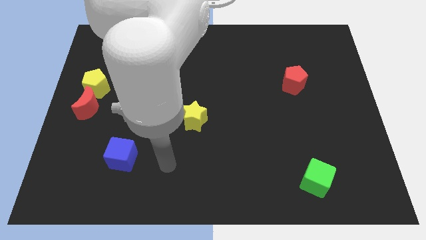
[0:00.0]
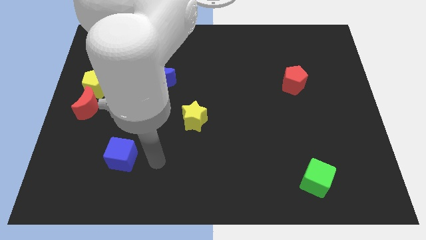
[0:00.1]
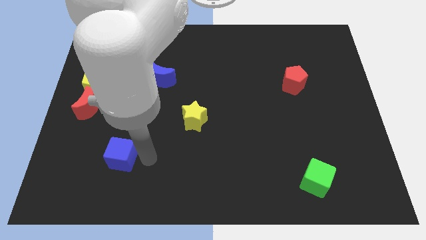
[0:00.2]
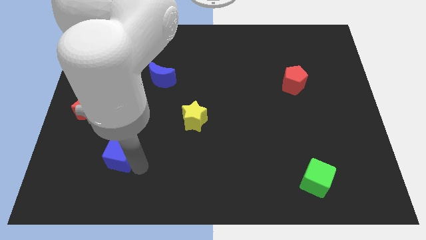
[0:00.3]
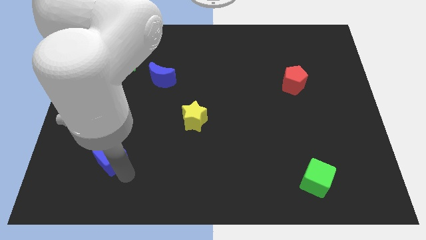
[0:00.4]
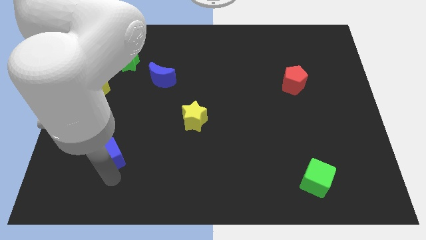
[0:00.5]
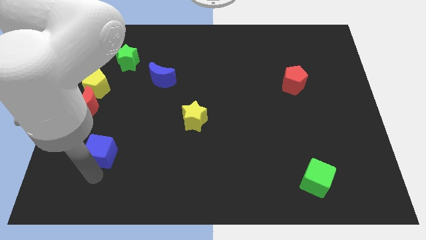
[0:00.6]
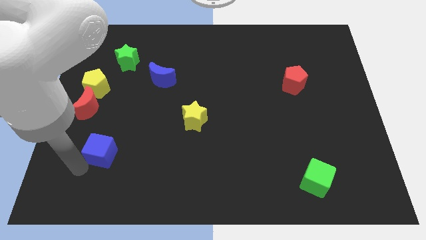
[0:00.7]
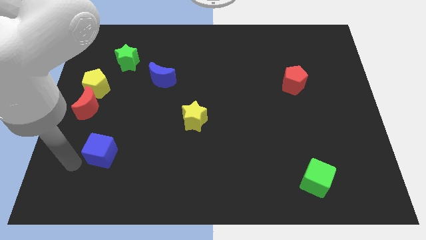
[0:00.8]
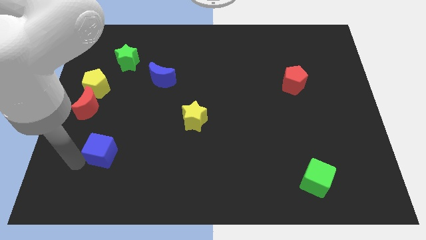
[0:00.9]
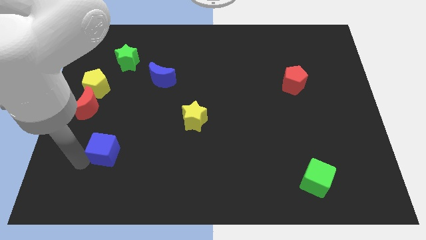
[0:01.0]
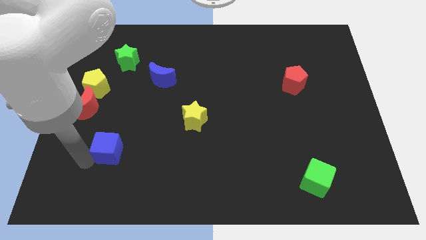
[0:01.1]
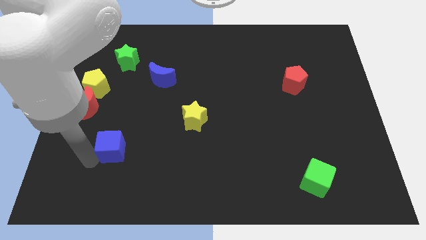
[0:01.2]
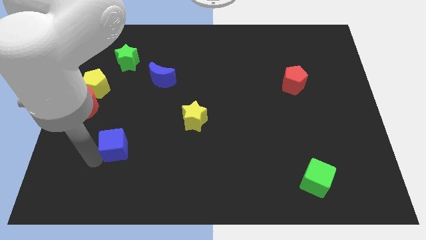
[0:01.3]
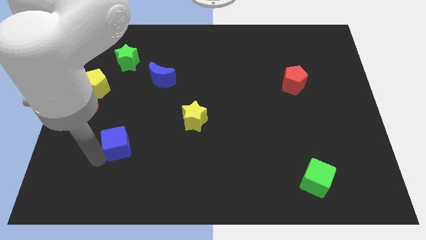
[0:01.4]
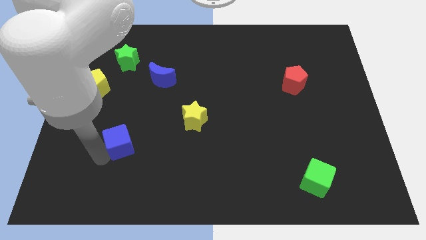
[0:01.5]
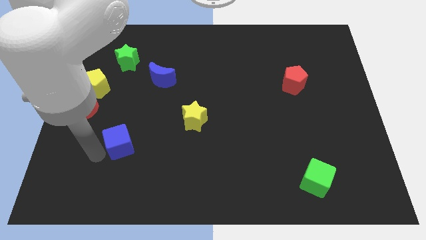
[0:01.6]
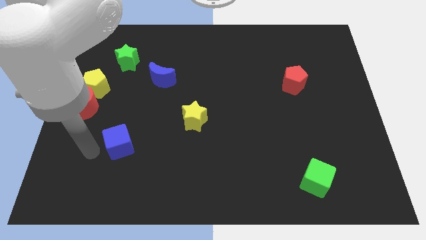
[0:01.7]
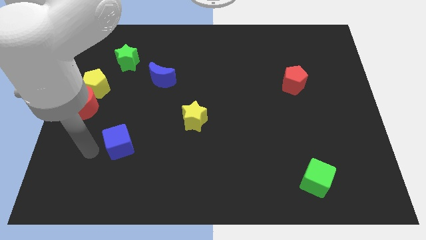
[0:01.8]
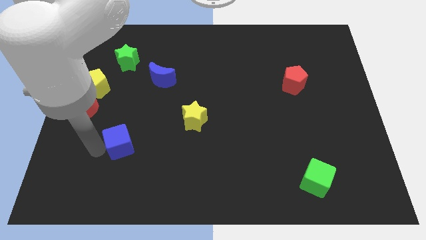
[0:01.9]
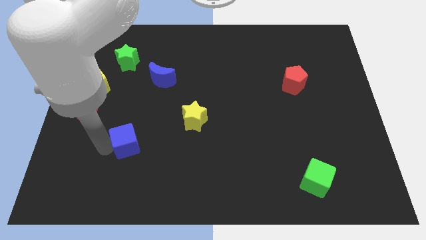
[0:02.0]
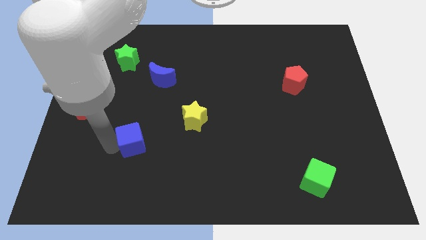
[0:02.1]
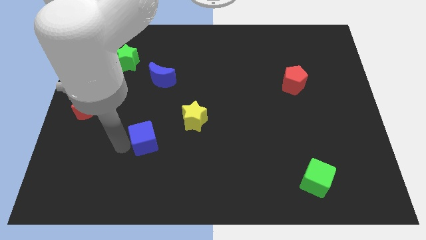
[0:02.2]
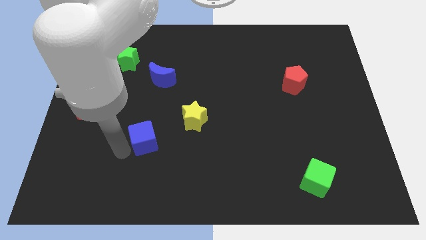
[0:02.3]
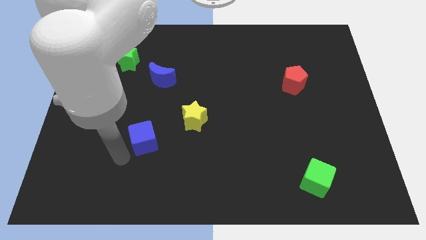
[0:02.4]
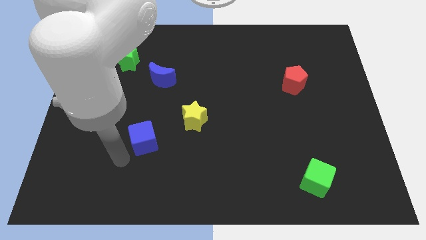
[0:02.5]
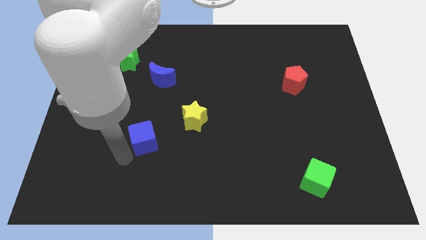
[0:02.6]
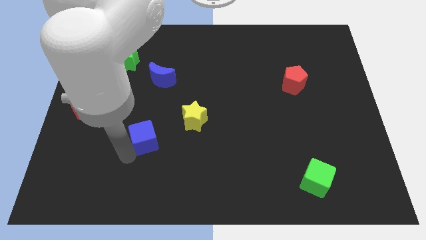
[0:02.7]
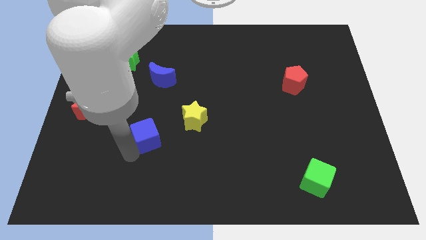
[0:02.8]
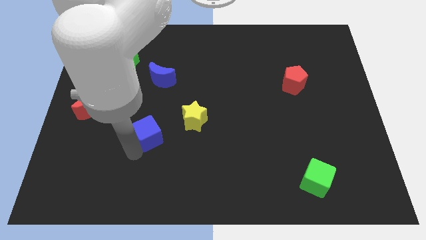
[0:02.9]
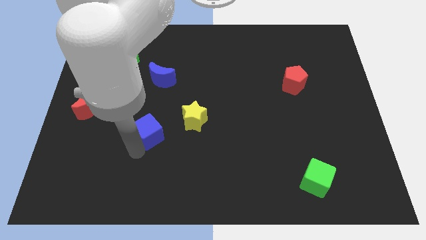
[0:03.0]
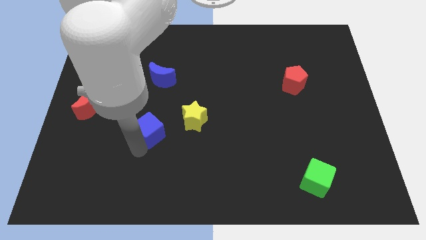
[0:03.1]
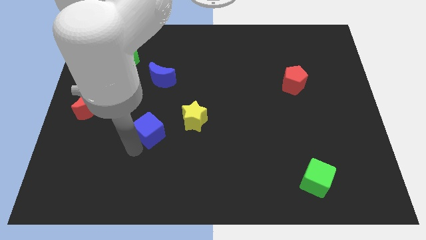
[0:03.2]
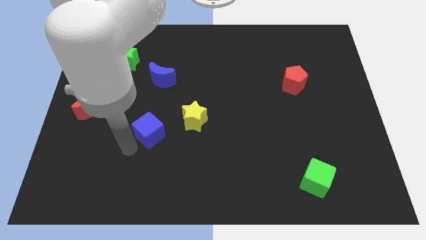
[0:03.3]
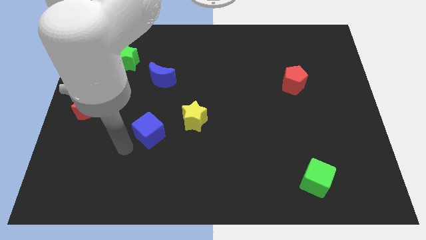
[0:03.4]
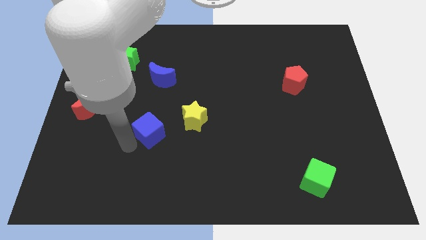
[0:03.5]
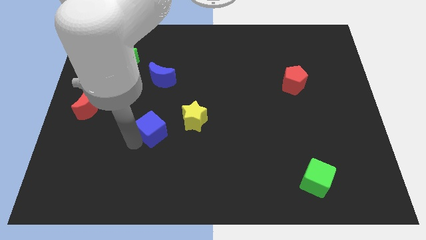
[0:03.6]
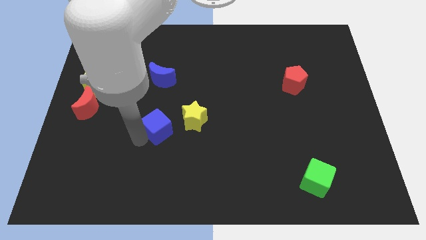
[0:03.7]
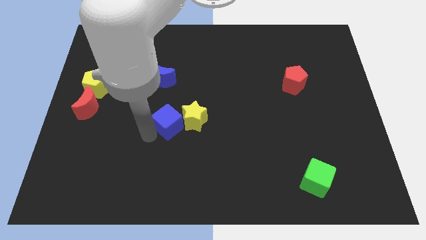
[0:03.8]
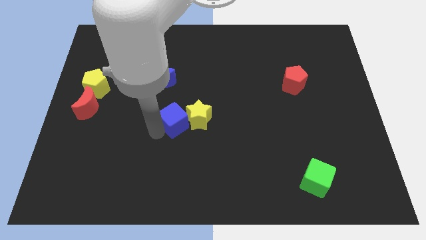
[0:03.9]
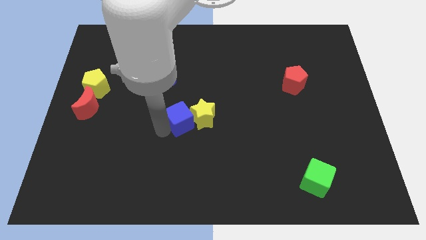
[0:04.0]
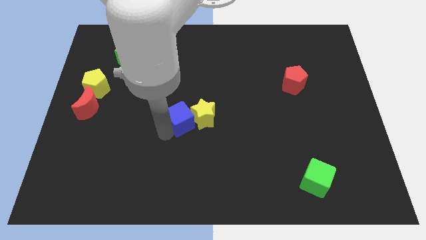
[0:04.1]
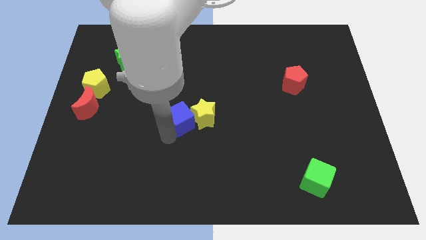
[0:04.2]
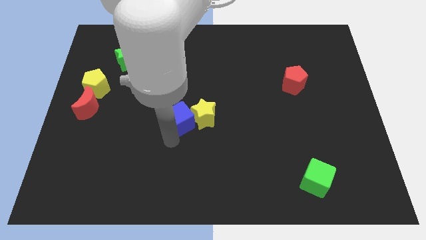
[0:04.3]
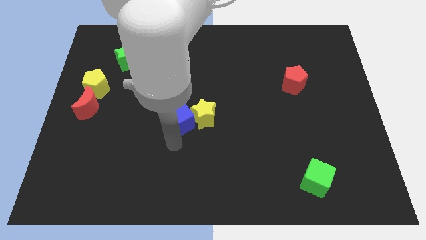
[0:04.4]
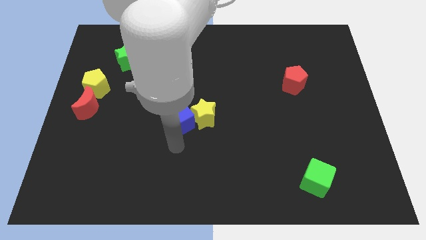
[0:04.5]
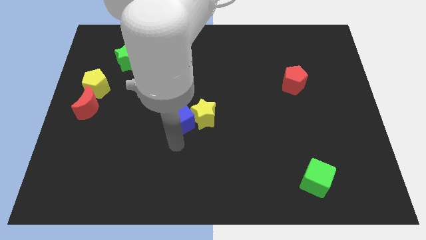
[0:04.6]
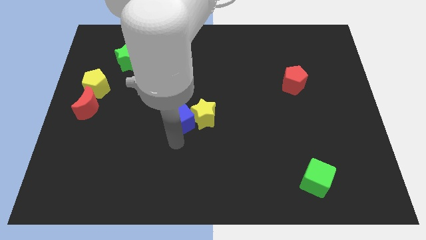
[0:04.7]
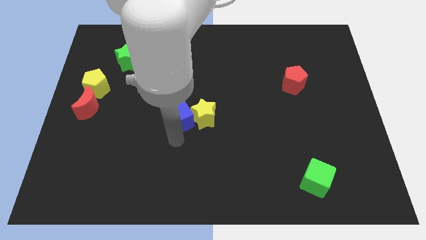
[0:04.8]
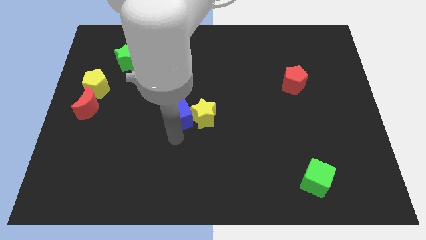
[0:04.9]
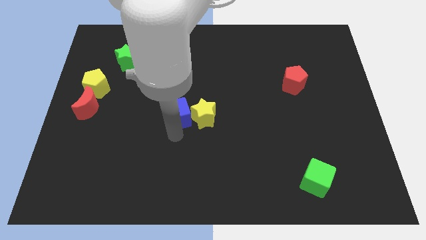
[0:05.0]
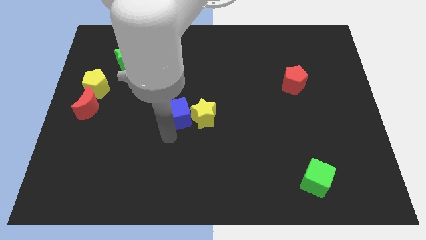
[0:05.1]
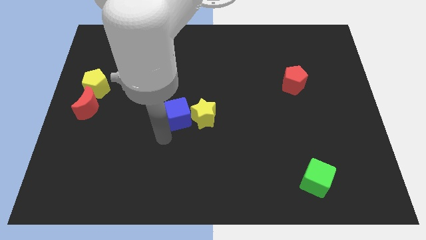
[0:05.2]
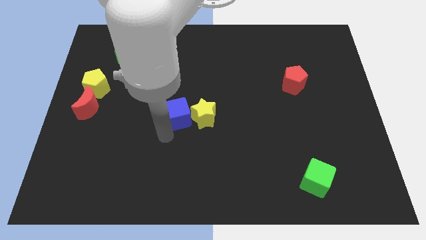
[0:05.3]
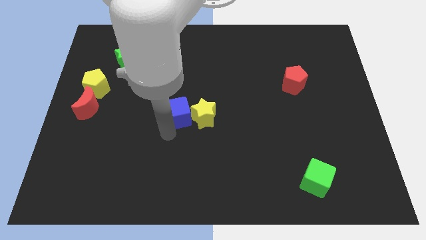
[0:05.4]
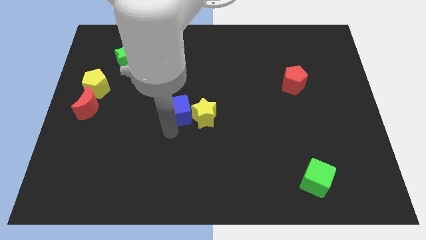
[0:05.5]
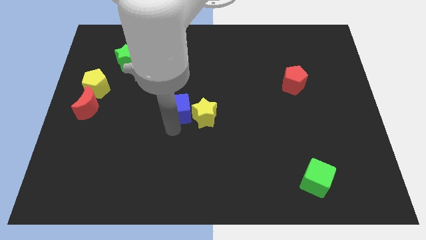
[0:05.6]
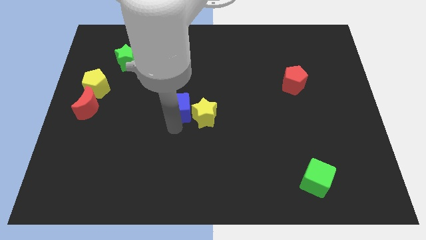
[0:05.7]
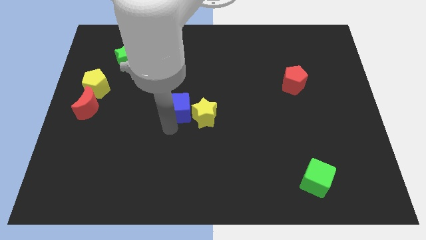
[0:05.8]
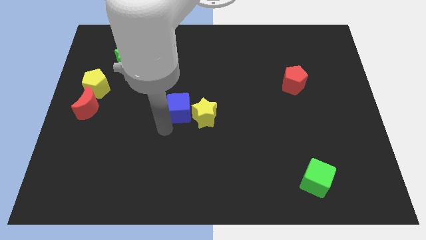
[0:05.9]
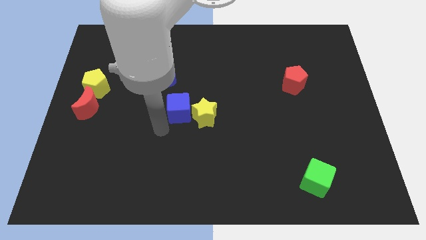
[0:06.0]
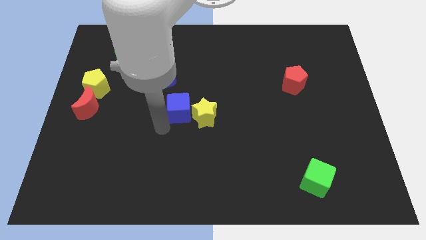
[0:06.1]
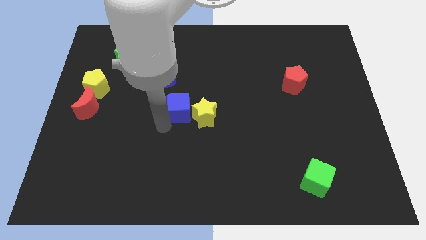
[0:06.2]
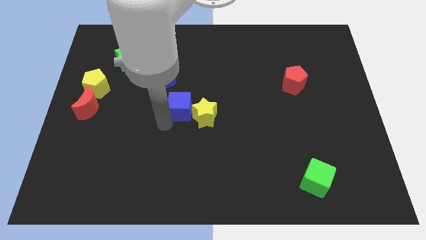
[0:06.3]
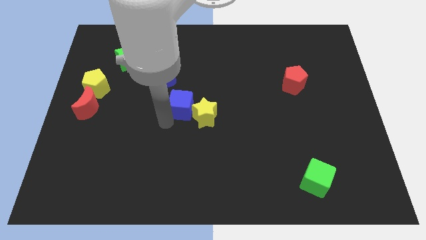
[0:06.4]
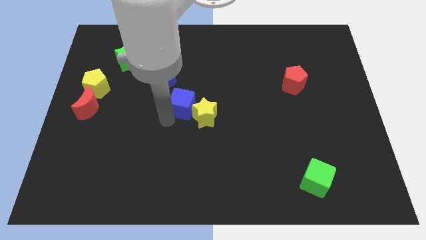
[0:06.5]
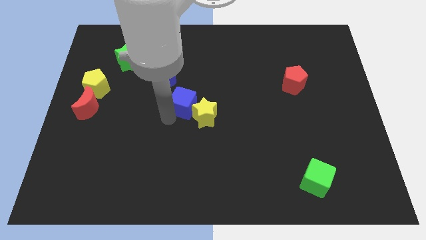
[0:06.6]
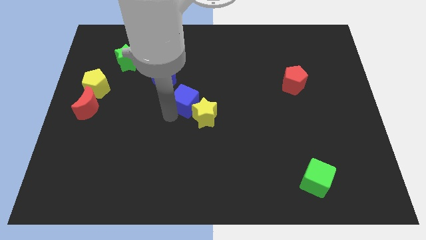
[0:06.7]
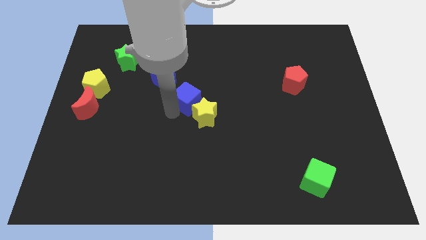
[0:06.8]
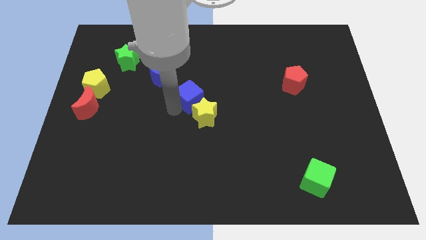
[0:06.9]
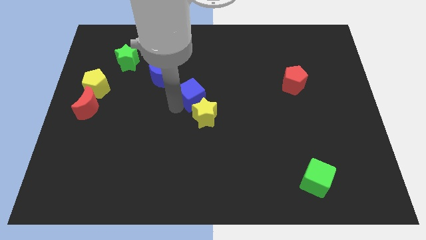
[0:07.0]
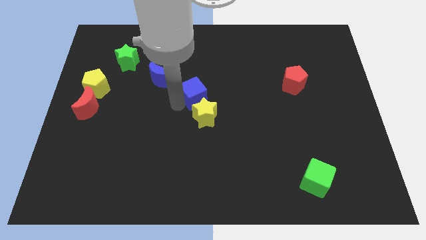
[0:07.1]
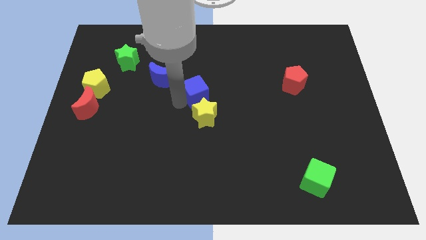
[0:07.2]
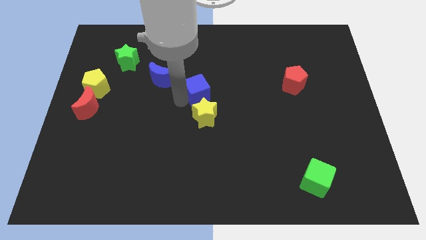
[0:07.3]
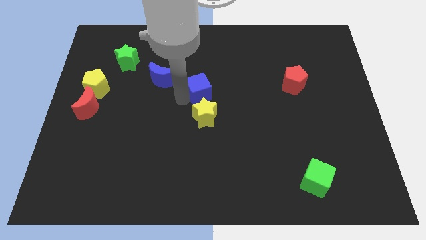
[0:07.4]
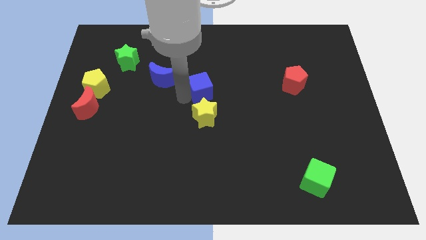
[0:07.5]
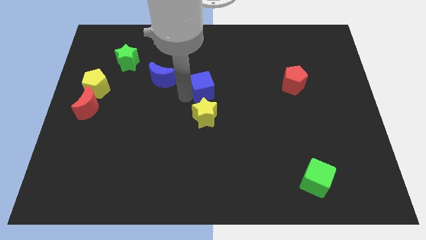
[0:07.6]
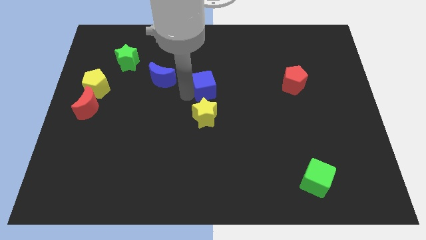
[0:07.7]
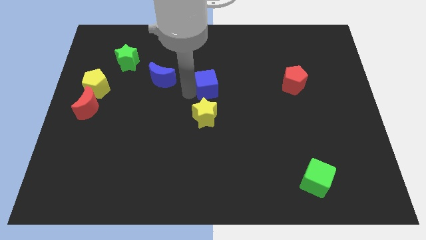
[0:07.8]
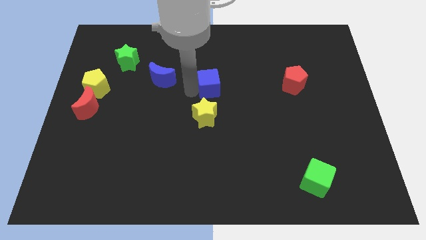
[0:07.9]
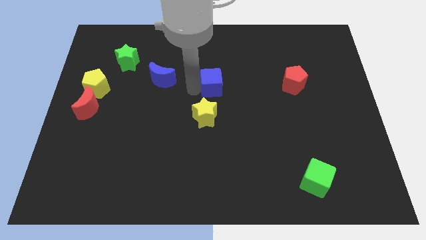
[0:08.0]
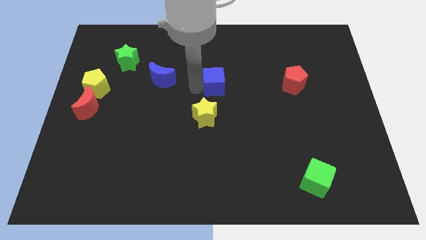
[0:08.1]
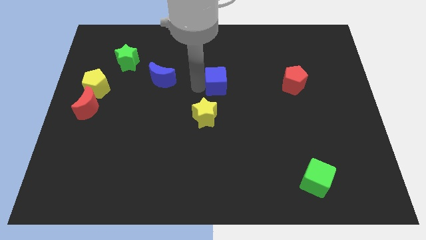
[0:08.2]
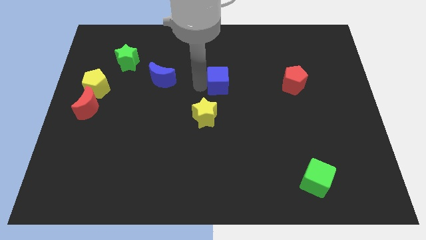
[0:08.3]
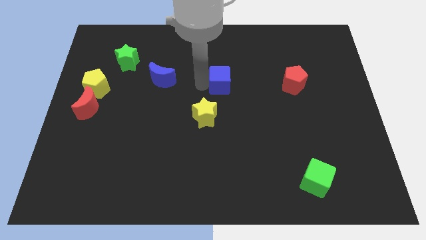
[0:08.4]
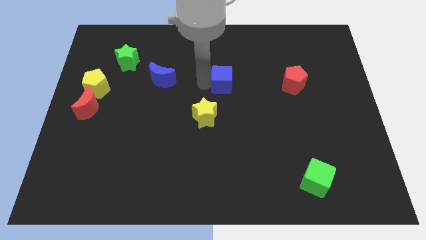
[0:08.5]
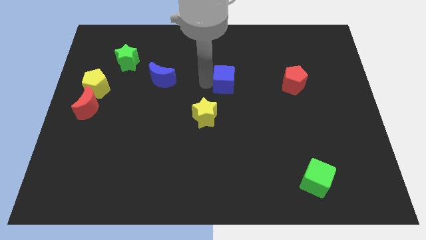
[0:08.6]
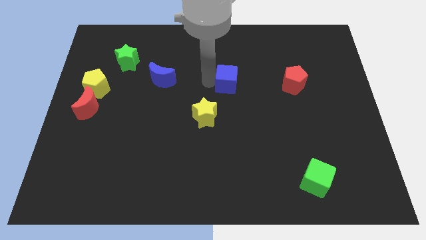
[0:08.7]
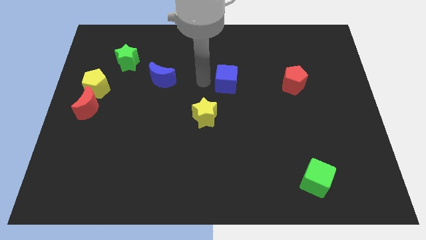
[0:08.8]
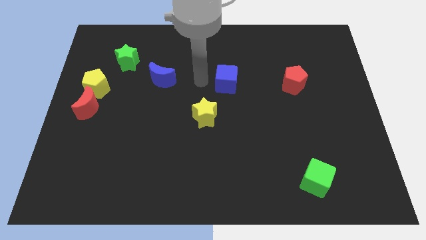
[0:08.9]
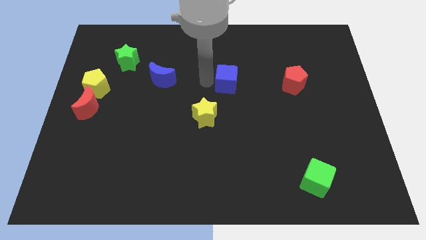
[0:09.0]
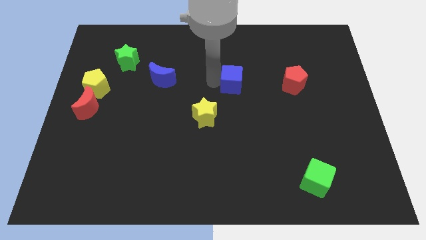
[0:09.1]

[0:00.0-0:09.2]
move the blue cube left of the red pentagon
